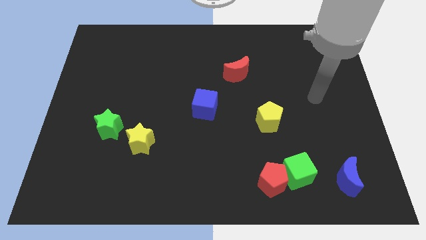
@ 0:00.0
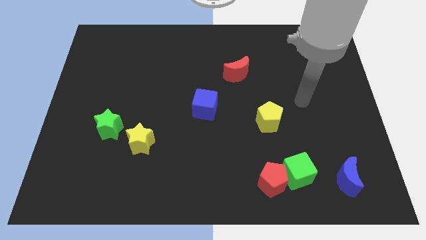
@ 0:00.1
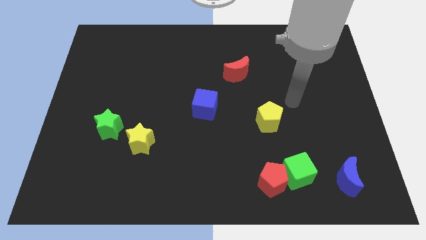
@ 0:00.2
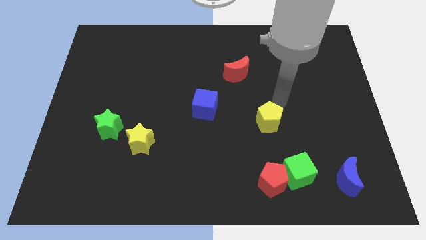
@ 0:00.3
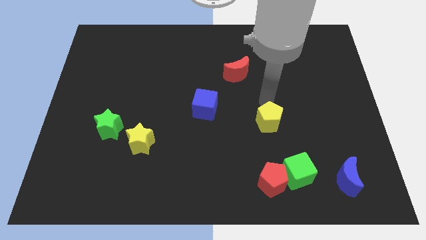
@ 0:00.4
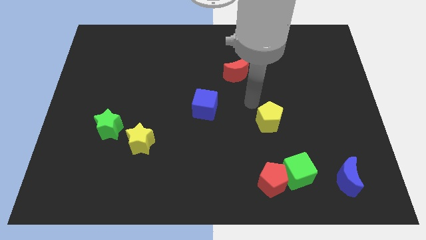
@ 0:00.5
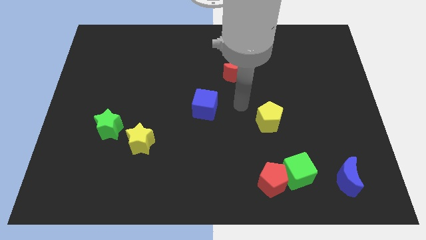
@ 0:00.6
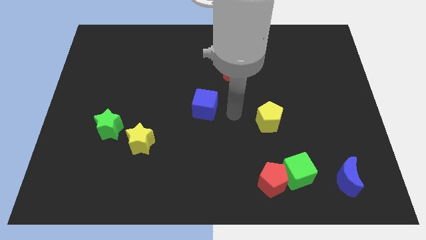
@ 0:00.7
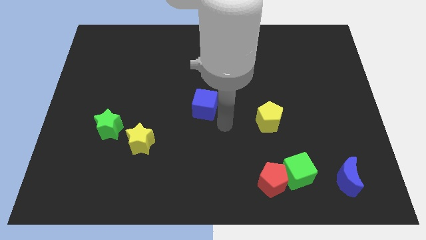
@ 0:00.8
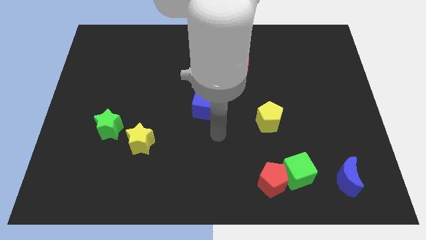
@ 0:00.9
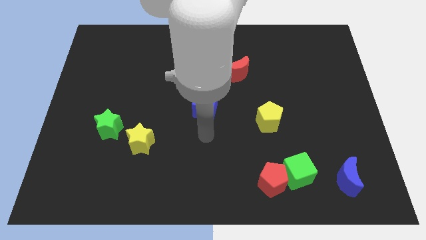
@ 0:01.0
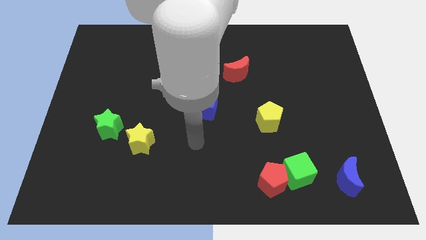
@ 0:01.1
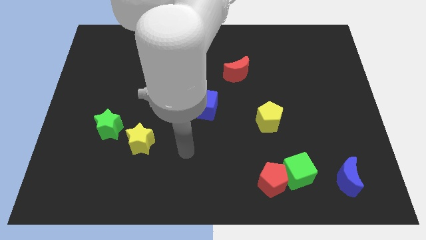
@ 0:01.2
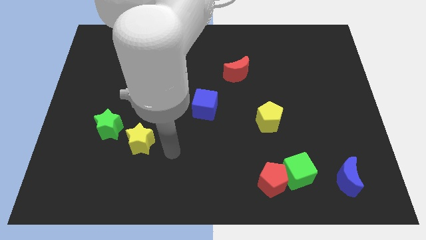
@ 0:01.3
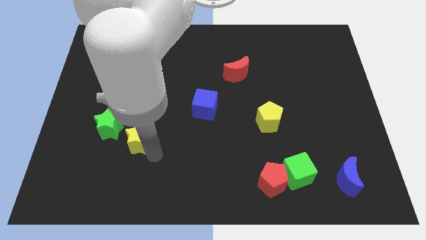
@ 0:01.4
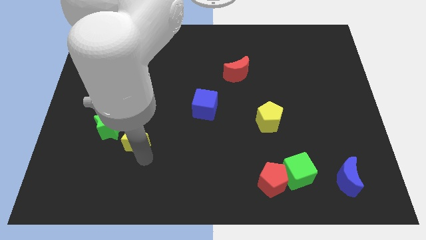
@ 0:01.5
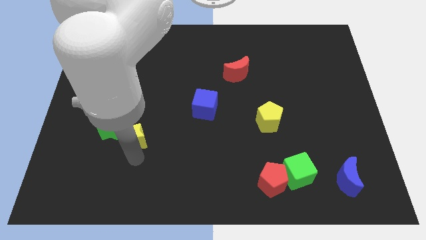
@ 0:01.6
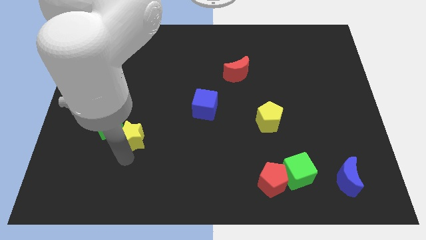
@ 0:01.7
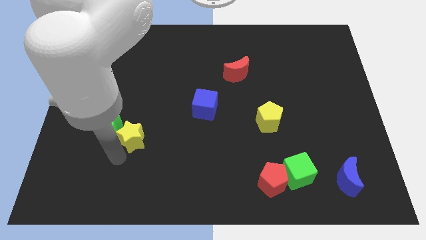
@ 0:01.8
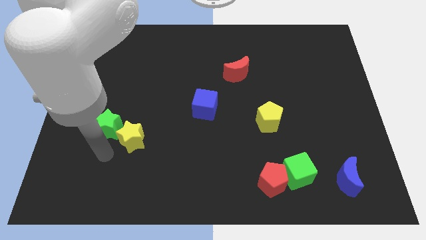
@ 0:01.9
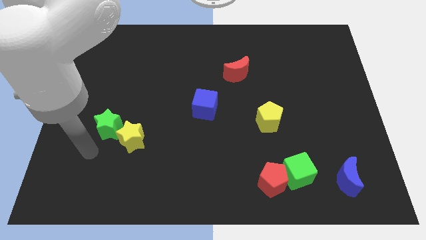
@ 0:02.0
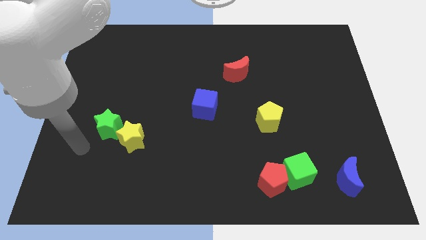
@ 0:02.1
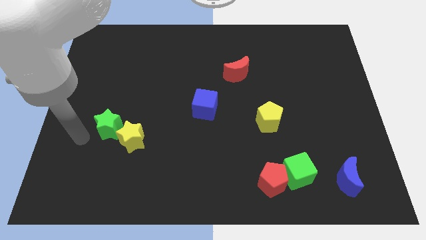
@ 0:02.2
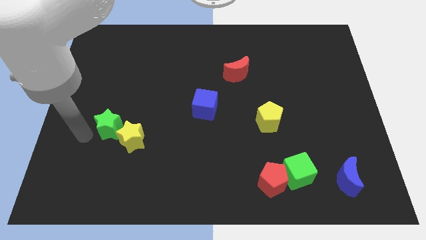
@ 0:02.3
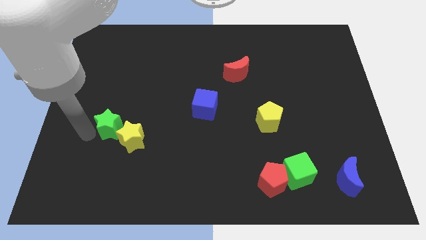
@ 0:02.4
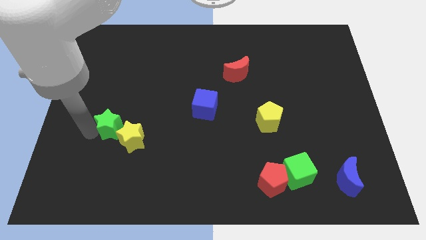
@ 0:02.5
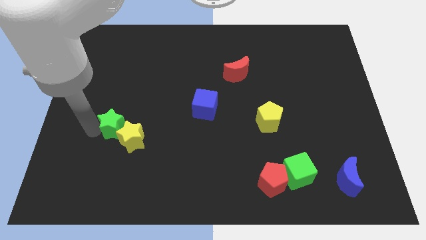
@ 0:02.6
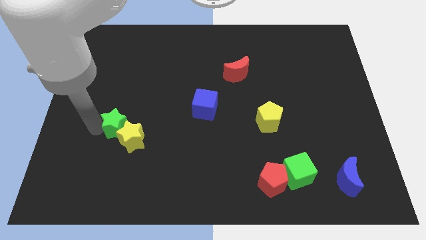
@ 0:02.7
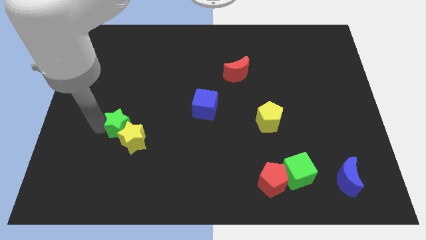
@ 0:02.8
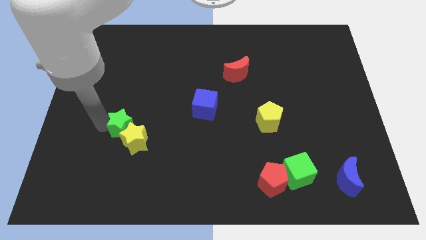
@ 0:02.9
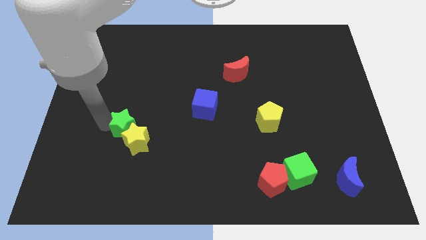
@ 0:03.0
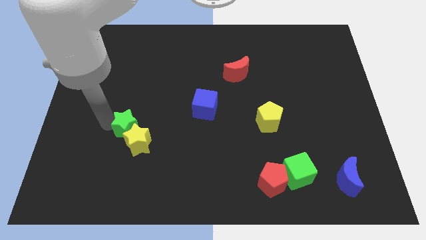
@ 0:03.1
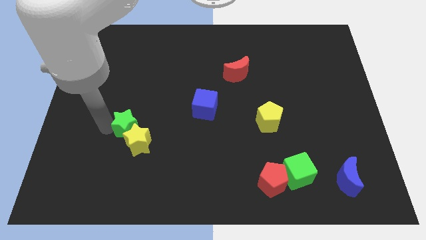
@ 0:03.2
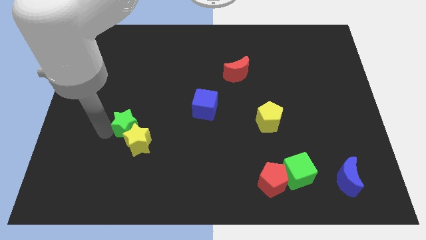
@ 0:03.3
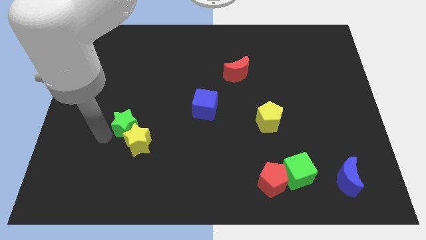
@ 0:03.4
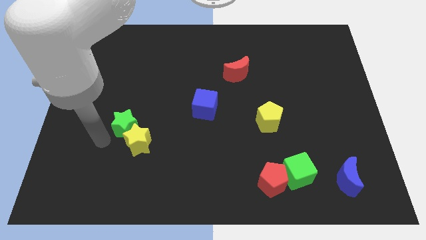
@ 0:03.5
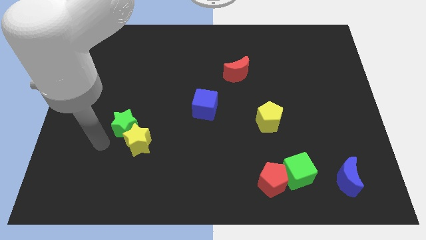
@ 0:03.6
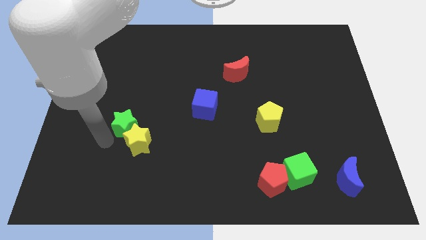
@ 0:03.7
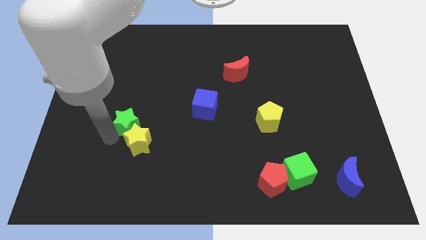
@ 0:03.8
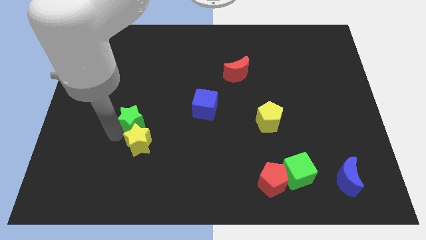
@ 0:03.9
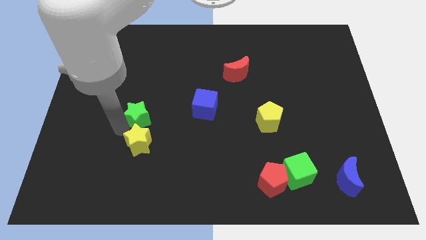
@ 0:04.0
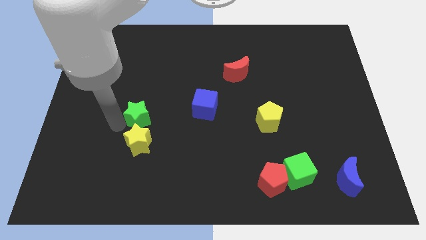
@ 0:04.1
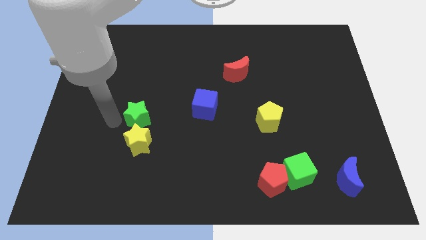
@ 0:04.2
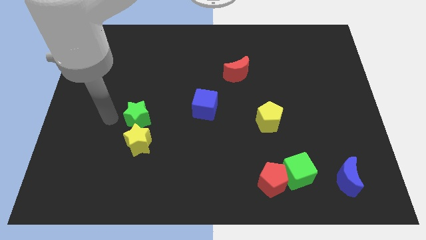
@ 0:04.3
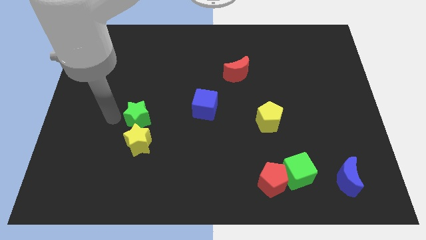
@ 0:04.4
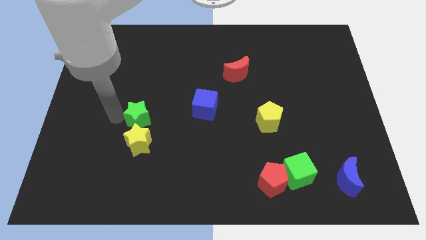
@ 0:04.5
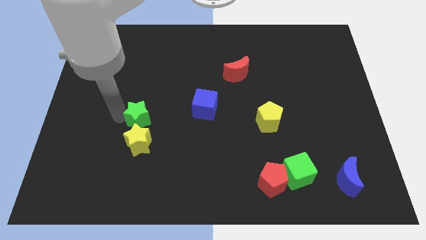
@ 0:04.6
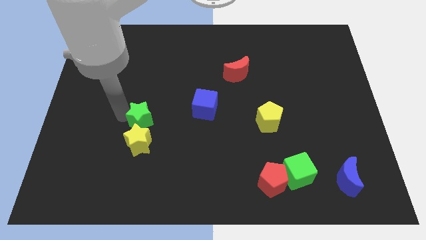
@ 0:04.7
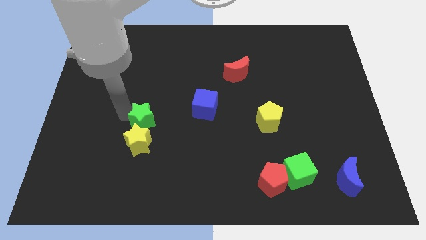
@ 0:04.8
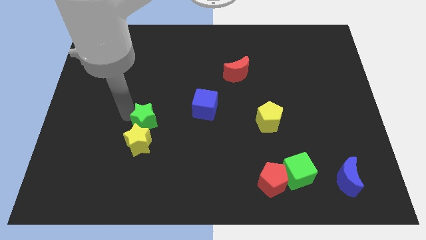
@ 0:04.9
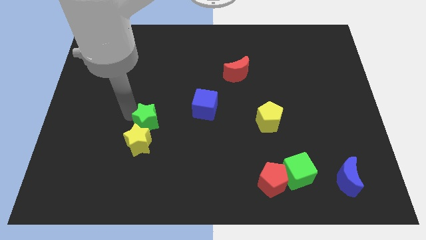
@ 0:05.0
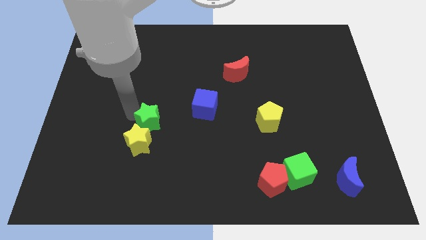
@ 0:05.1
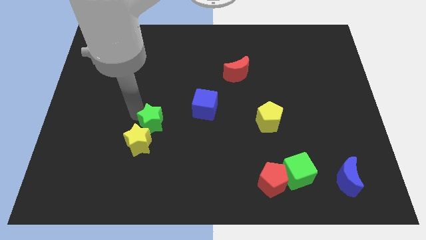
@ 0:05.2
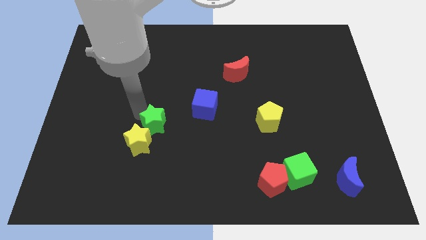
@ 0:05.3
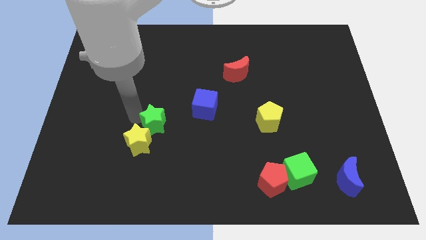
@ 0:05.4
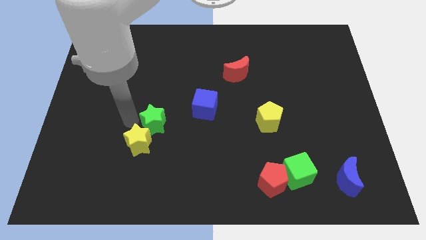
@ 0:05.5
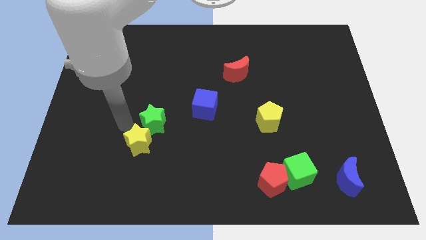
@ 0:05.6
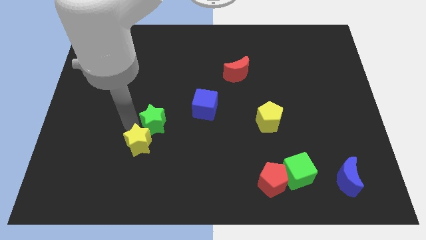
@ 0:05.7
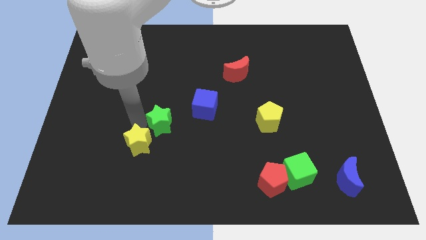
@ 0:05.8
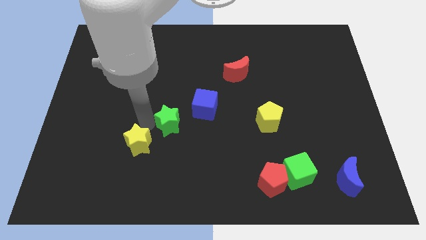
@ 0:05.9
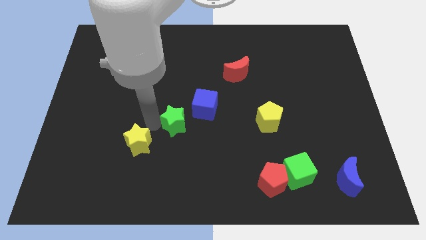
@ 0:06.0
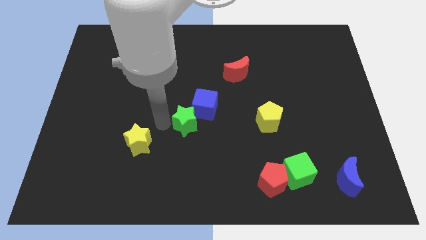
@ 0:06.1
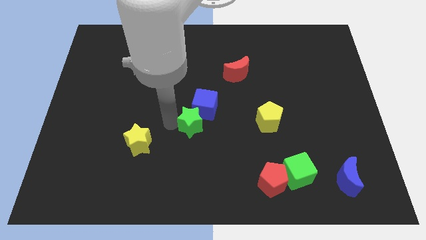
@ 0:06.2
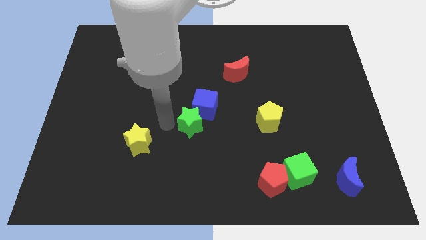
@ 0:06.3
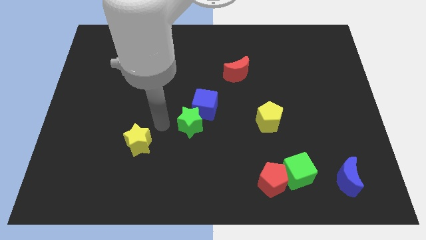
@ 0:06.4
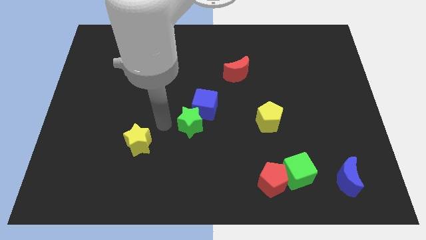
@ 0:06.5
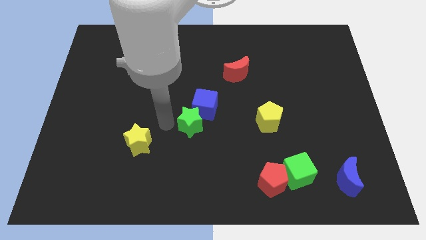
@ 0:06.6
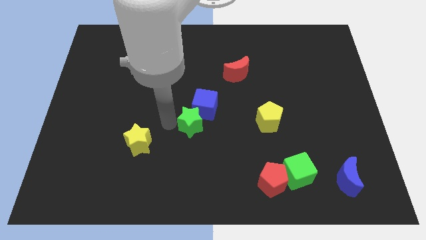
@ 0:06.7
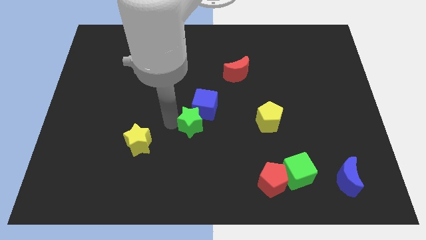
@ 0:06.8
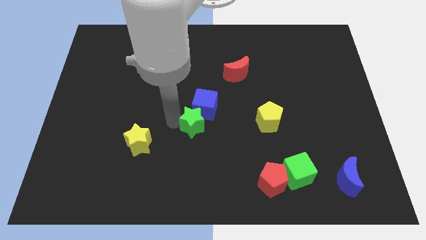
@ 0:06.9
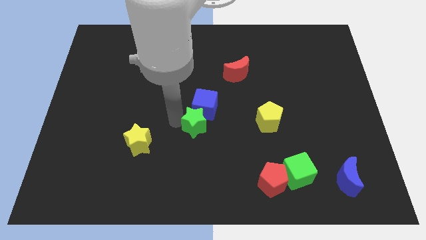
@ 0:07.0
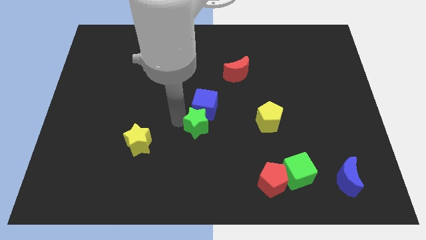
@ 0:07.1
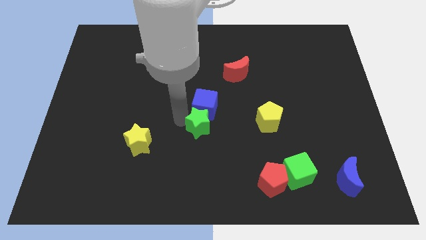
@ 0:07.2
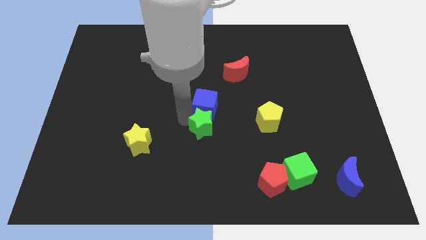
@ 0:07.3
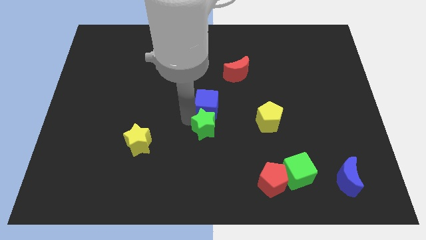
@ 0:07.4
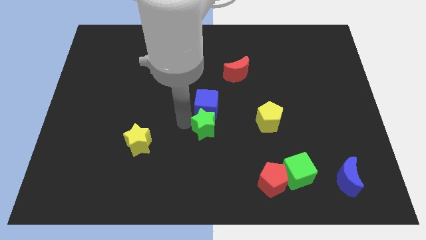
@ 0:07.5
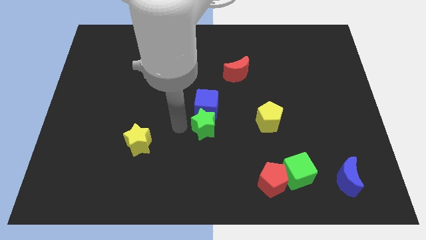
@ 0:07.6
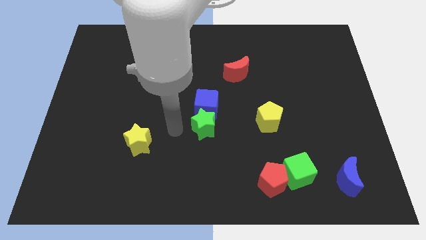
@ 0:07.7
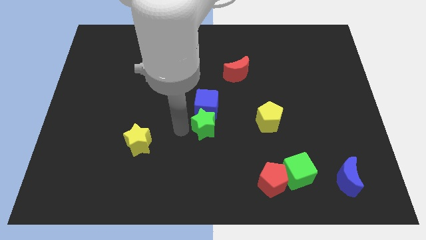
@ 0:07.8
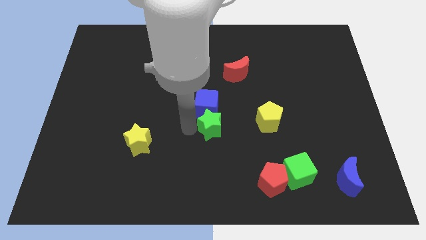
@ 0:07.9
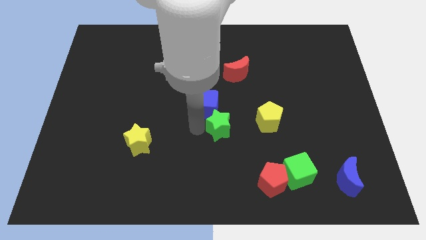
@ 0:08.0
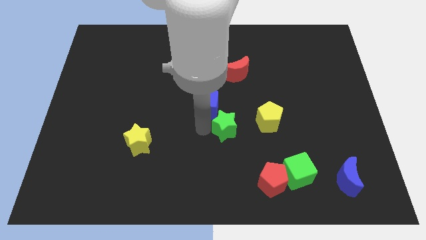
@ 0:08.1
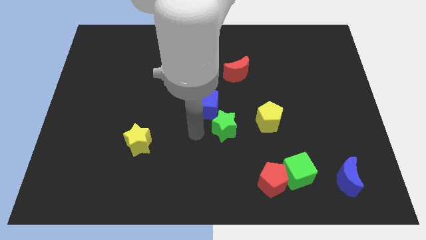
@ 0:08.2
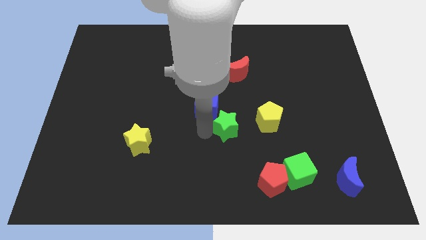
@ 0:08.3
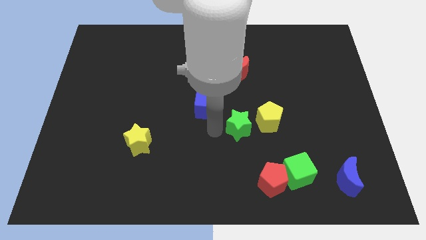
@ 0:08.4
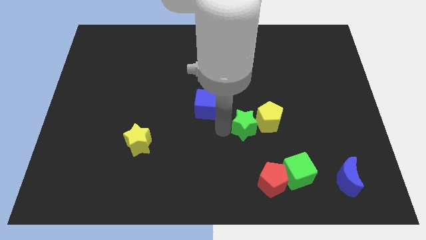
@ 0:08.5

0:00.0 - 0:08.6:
put the green star to the yellow pentagon
